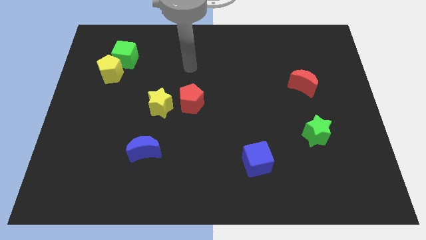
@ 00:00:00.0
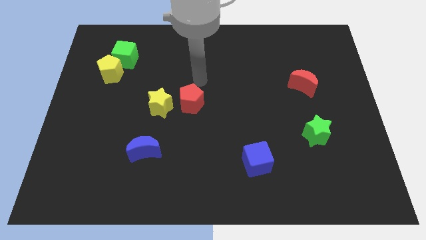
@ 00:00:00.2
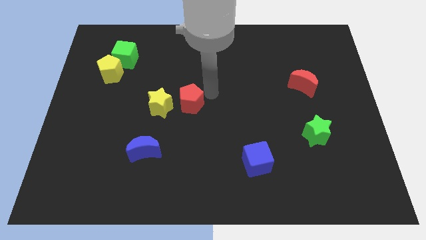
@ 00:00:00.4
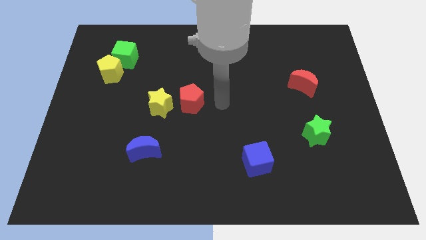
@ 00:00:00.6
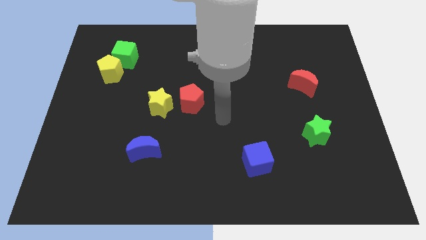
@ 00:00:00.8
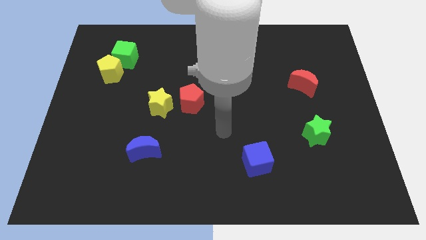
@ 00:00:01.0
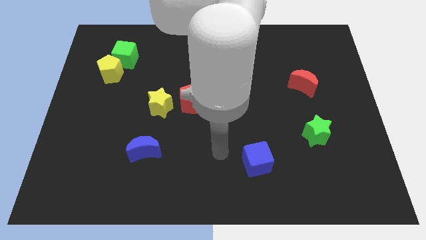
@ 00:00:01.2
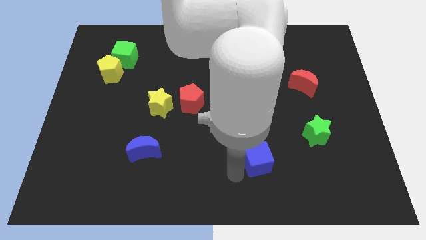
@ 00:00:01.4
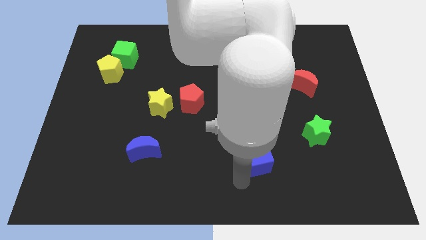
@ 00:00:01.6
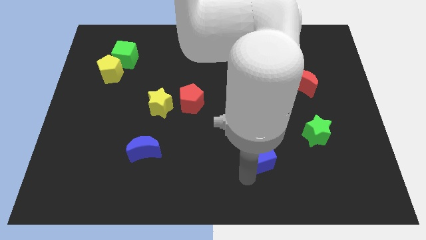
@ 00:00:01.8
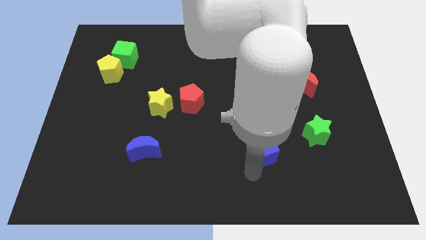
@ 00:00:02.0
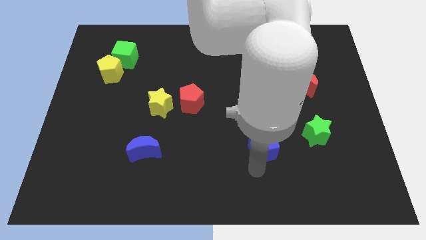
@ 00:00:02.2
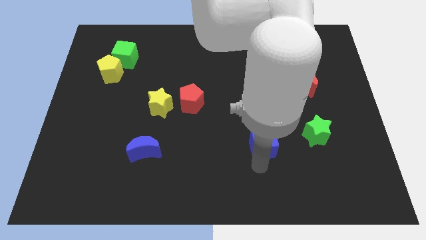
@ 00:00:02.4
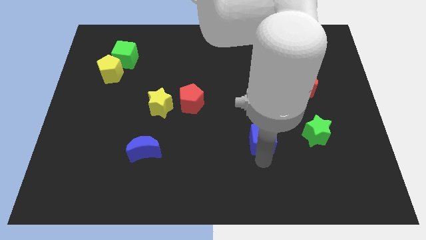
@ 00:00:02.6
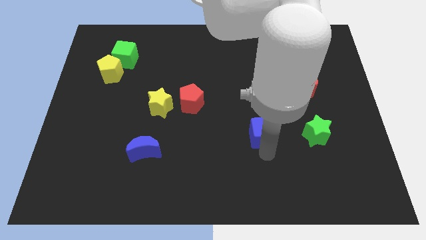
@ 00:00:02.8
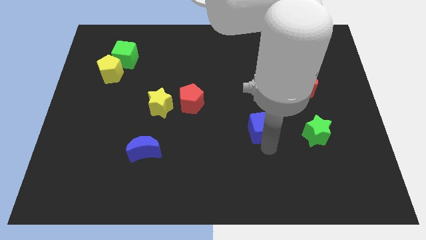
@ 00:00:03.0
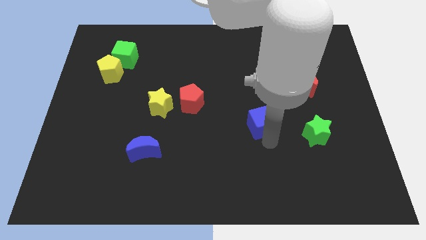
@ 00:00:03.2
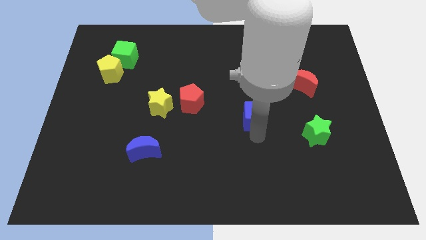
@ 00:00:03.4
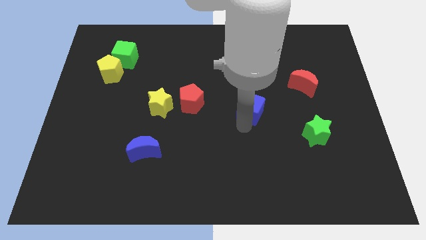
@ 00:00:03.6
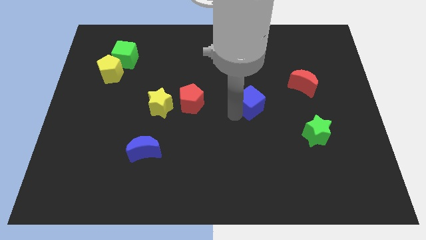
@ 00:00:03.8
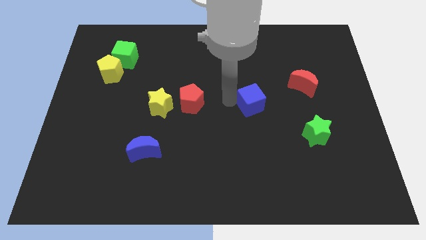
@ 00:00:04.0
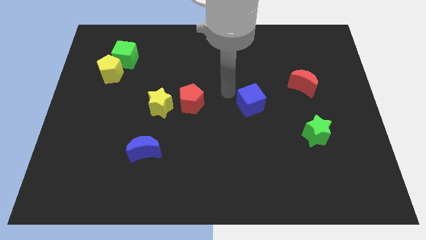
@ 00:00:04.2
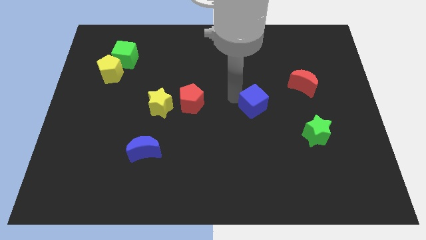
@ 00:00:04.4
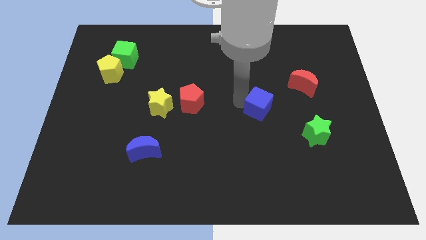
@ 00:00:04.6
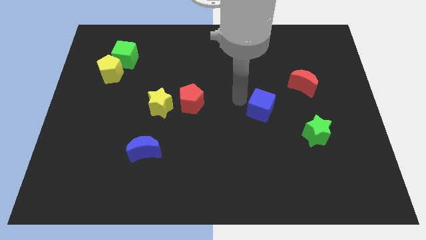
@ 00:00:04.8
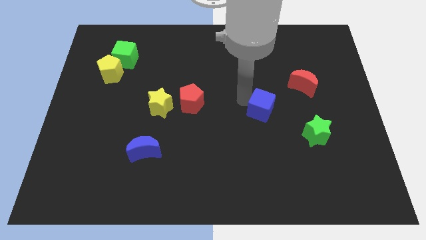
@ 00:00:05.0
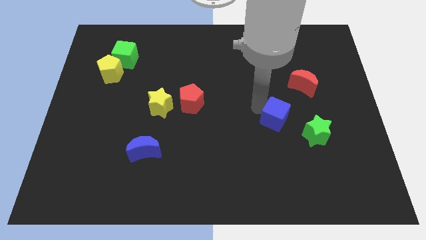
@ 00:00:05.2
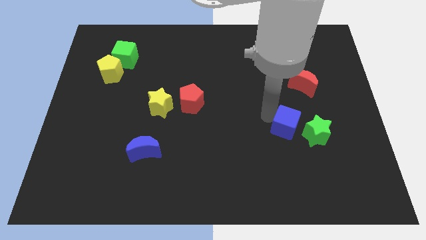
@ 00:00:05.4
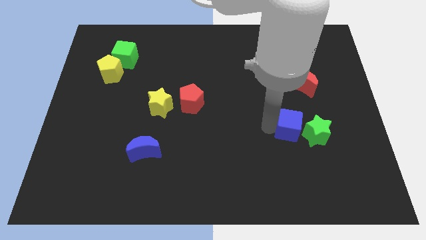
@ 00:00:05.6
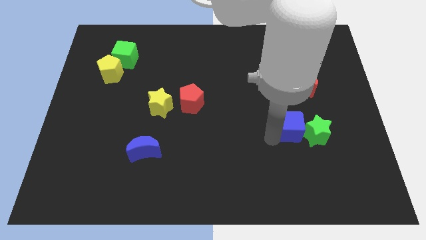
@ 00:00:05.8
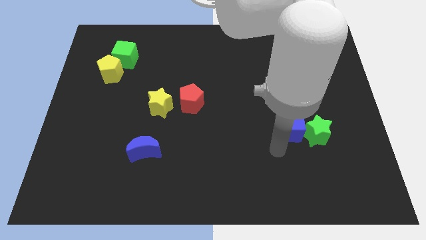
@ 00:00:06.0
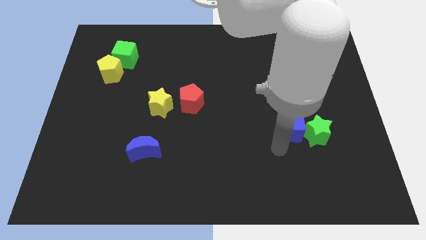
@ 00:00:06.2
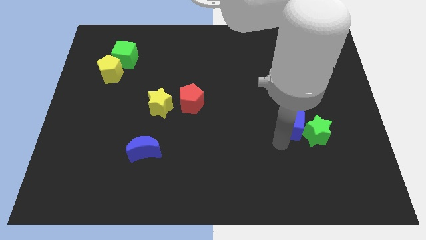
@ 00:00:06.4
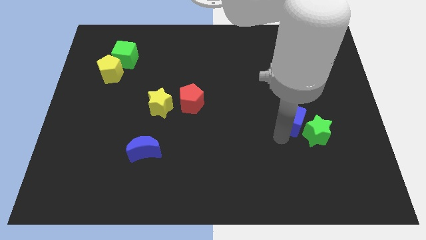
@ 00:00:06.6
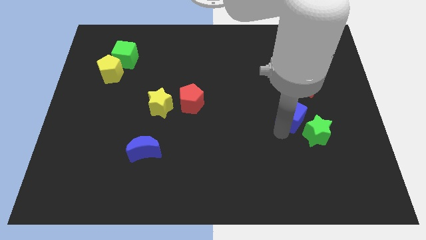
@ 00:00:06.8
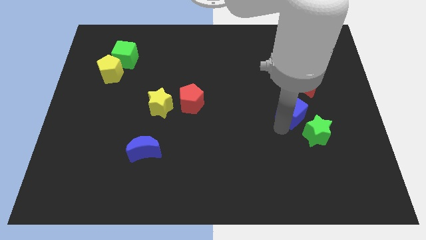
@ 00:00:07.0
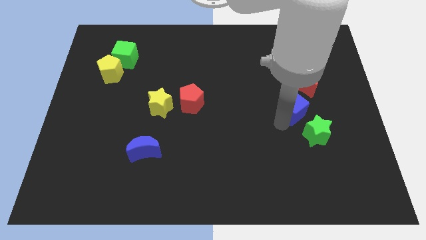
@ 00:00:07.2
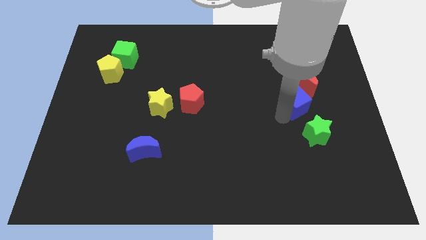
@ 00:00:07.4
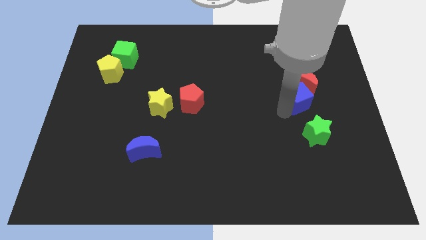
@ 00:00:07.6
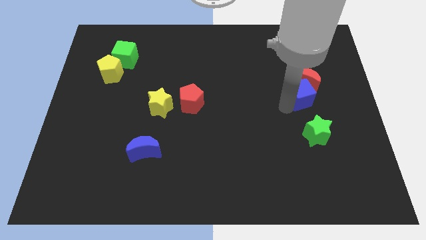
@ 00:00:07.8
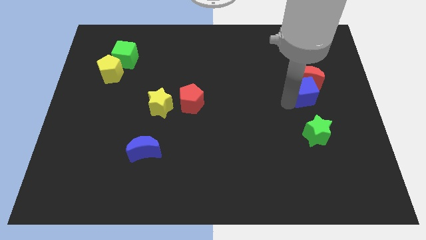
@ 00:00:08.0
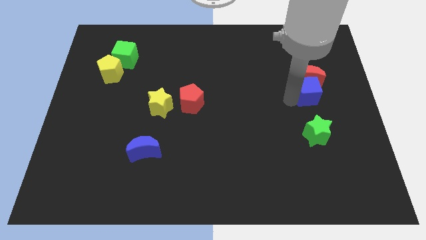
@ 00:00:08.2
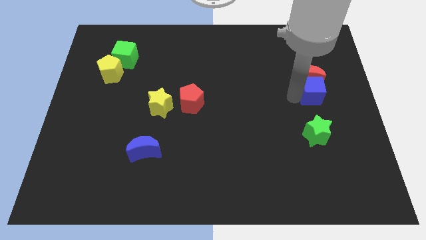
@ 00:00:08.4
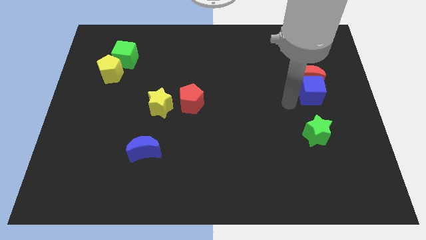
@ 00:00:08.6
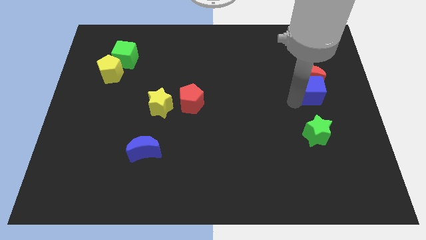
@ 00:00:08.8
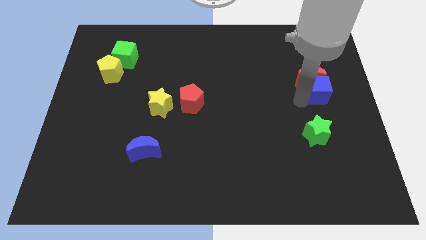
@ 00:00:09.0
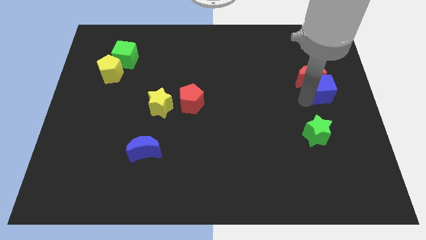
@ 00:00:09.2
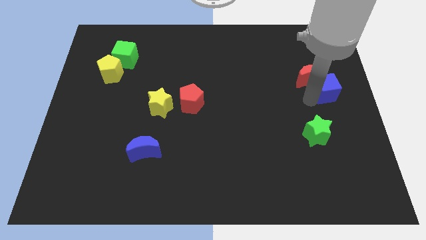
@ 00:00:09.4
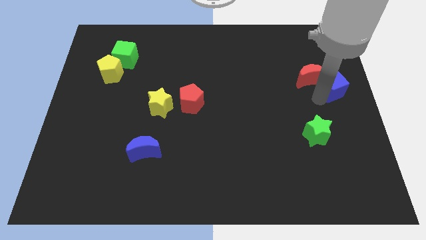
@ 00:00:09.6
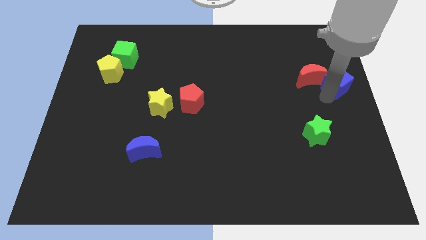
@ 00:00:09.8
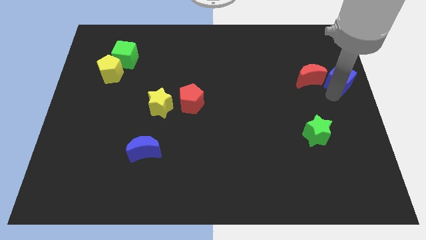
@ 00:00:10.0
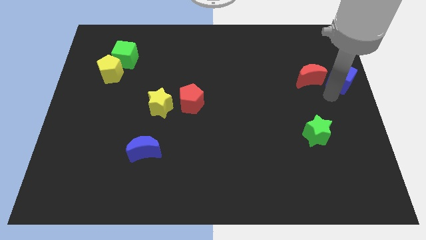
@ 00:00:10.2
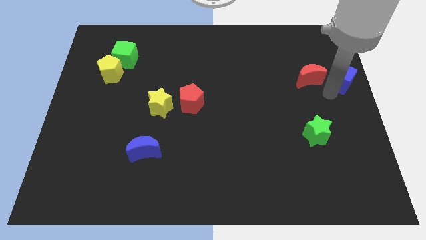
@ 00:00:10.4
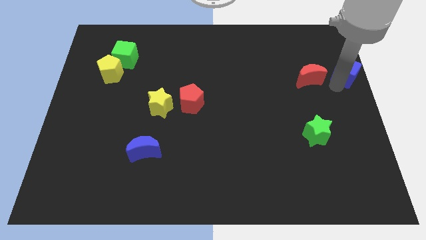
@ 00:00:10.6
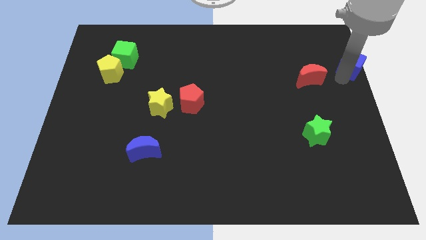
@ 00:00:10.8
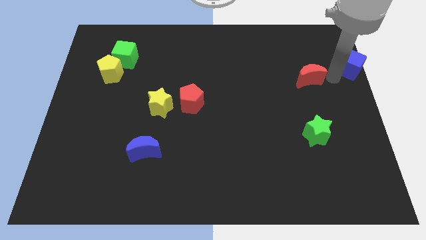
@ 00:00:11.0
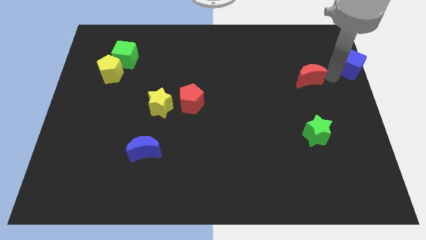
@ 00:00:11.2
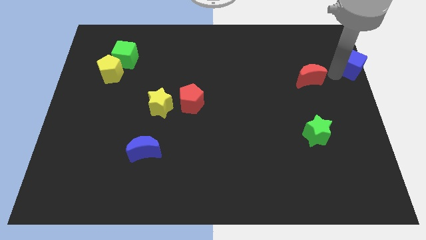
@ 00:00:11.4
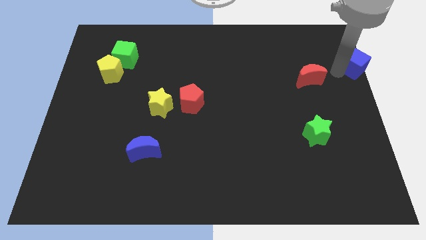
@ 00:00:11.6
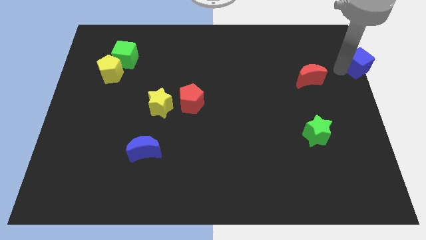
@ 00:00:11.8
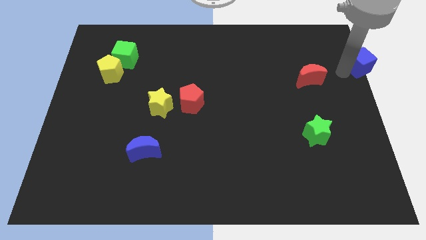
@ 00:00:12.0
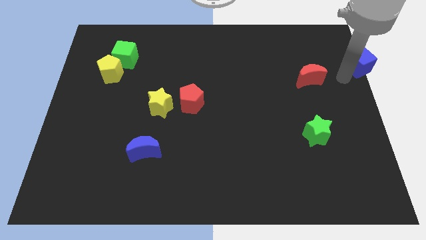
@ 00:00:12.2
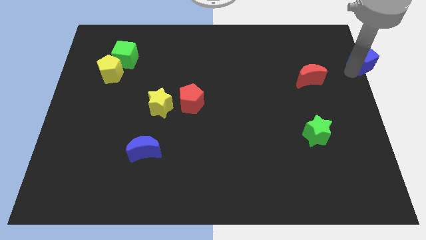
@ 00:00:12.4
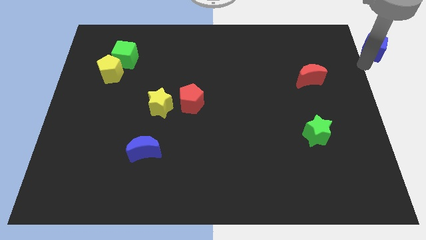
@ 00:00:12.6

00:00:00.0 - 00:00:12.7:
move the blue cube to the top right
